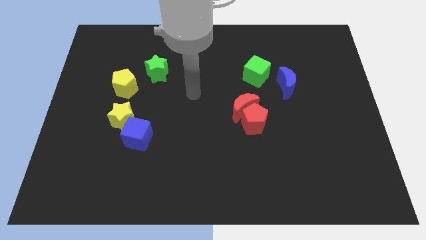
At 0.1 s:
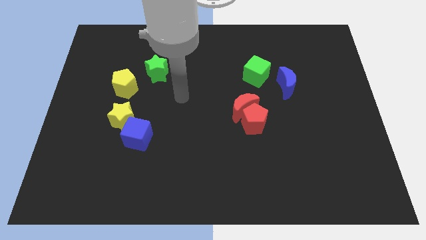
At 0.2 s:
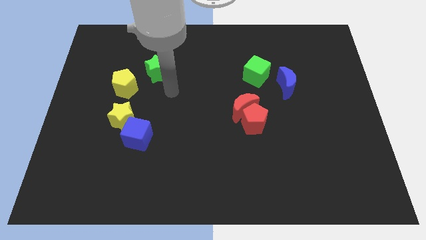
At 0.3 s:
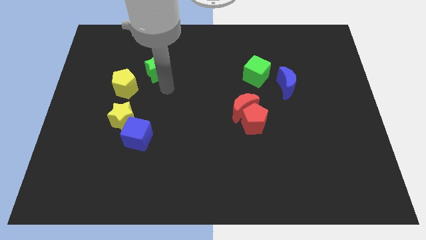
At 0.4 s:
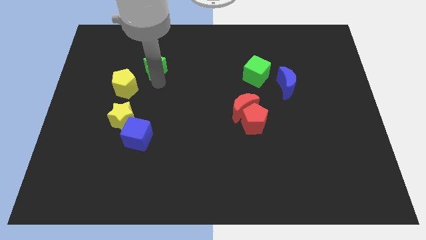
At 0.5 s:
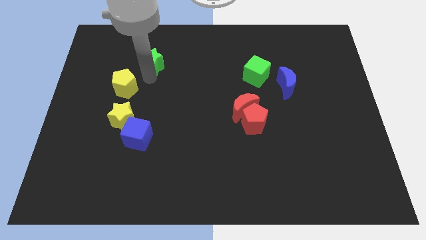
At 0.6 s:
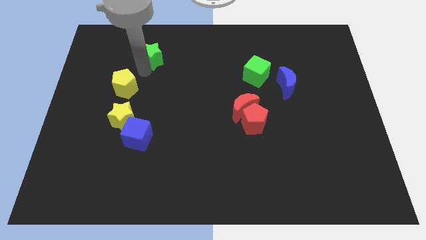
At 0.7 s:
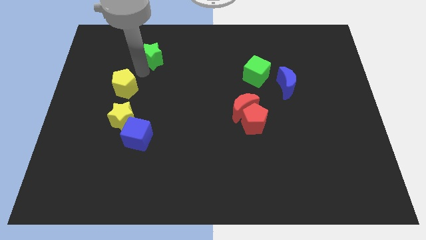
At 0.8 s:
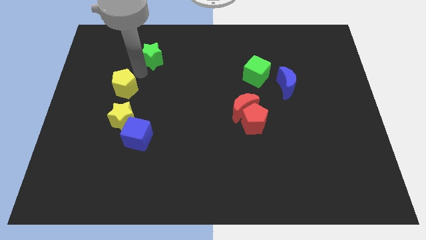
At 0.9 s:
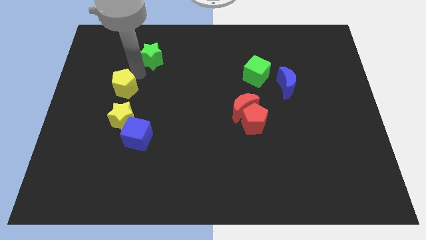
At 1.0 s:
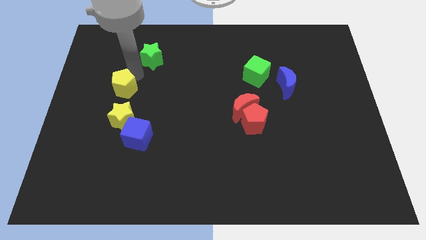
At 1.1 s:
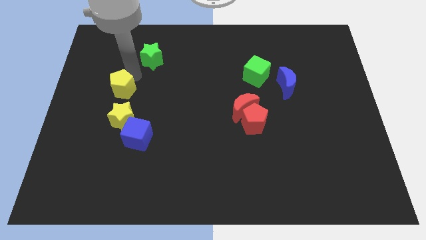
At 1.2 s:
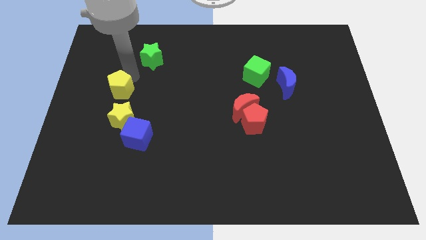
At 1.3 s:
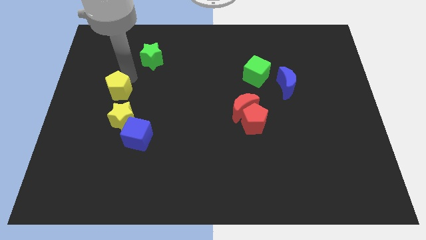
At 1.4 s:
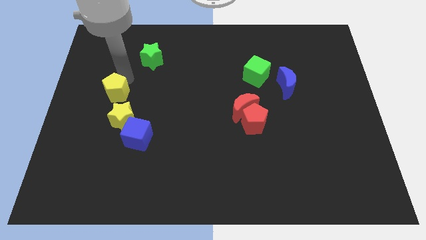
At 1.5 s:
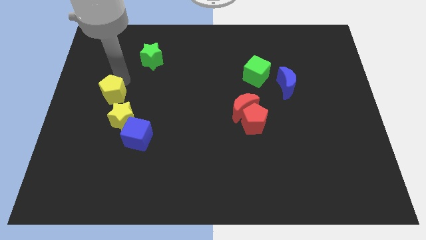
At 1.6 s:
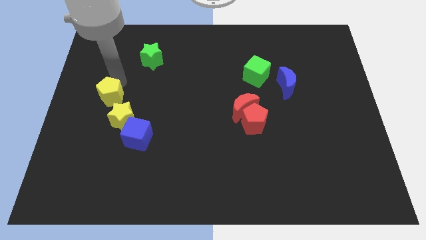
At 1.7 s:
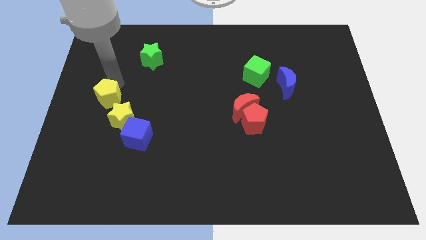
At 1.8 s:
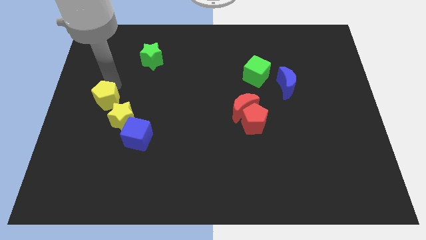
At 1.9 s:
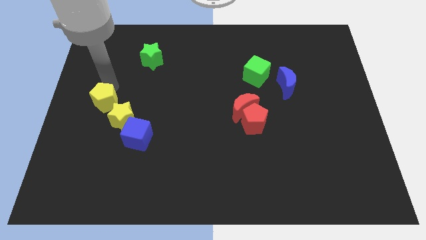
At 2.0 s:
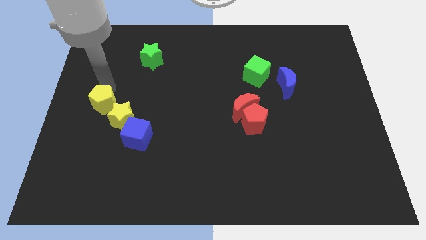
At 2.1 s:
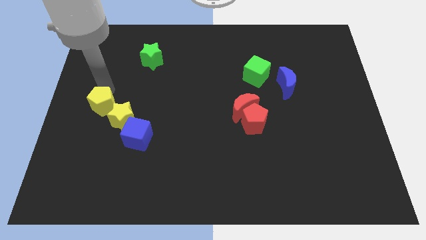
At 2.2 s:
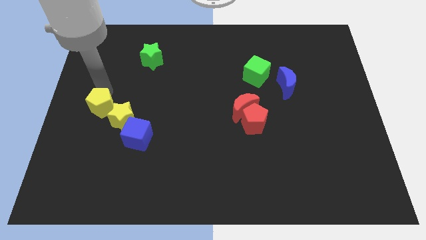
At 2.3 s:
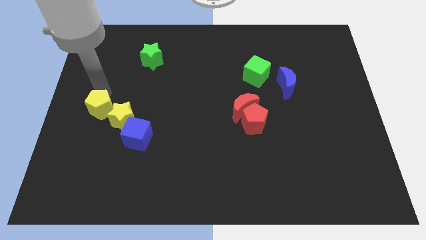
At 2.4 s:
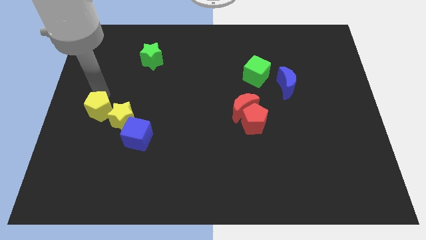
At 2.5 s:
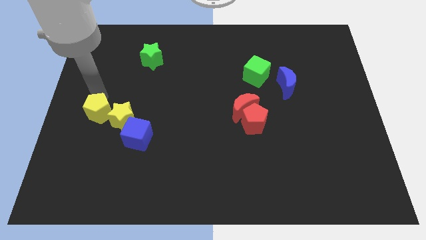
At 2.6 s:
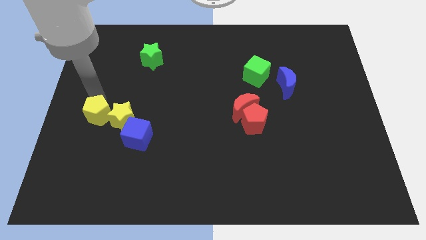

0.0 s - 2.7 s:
slide the yellow pentagon somewhat down

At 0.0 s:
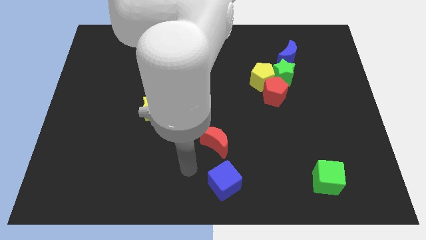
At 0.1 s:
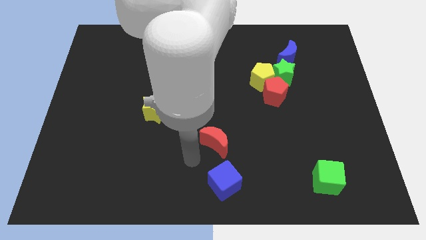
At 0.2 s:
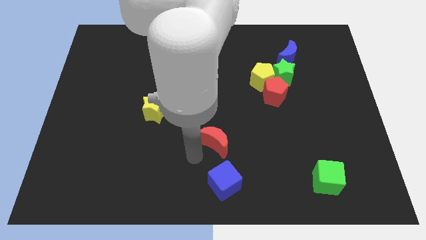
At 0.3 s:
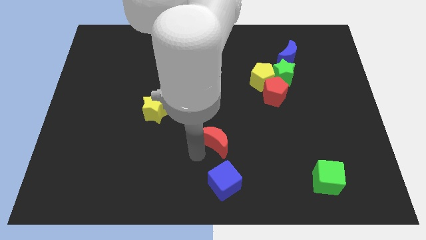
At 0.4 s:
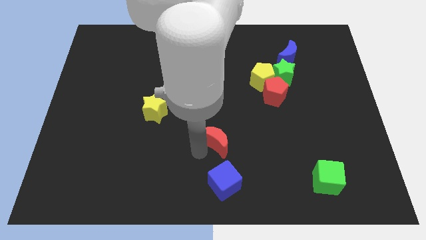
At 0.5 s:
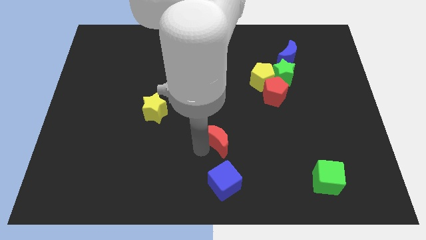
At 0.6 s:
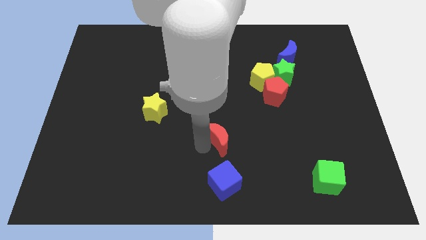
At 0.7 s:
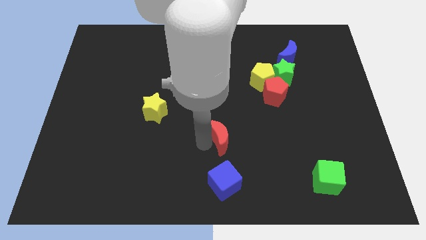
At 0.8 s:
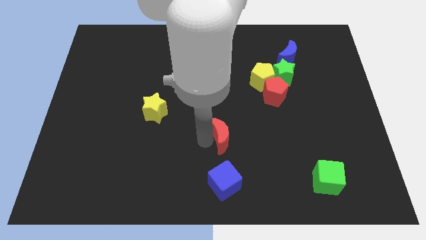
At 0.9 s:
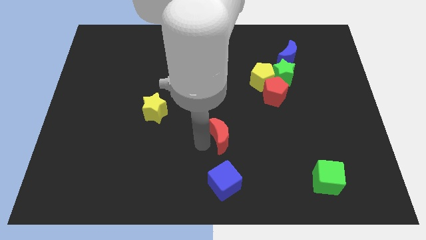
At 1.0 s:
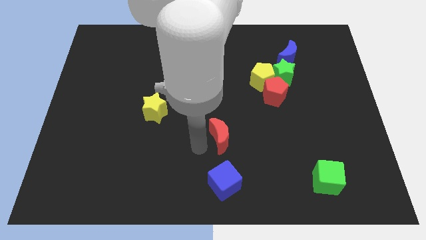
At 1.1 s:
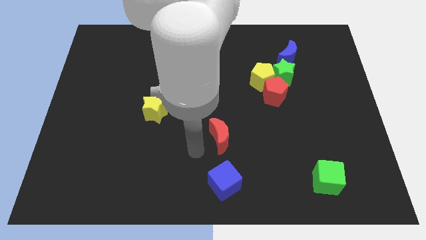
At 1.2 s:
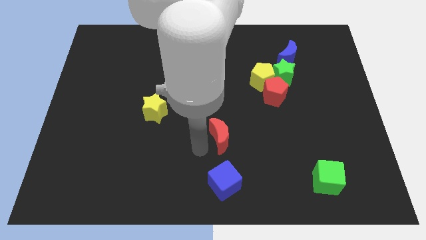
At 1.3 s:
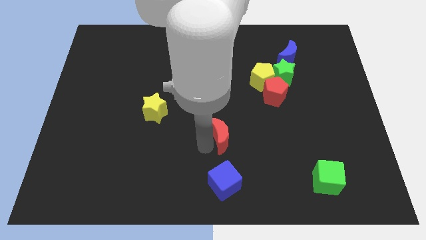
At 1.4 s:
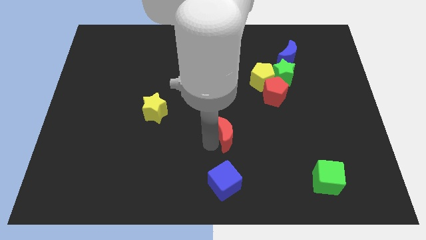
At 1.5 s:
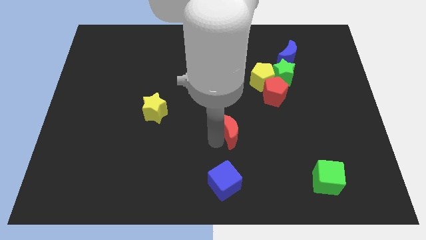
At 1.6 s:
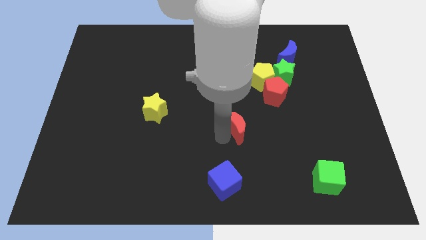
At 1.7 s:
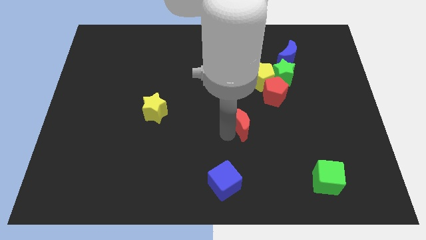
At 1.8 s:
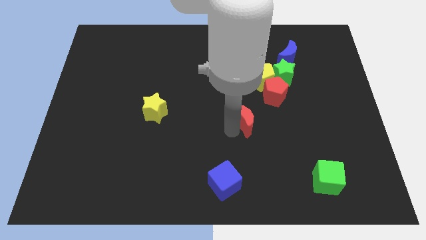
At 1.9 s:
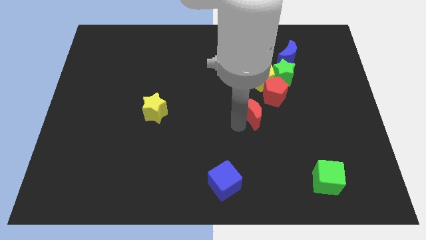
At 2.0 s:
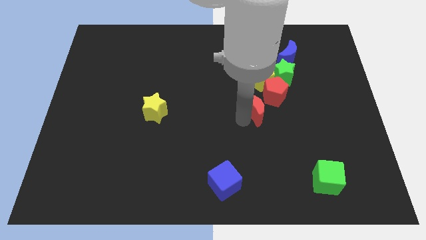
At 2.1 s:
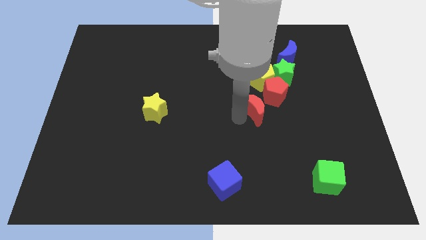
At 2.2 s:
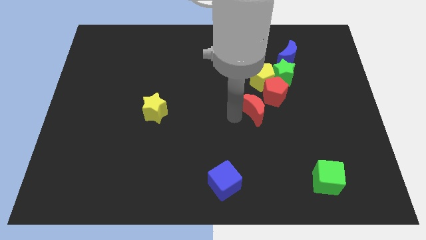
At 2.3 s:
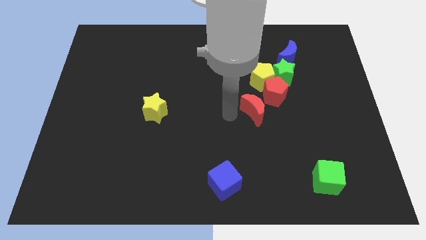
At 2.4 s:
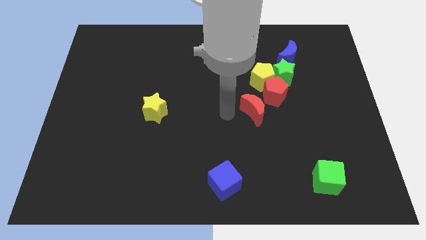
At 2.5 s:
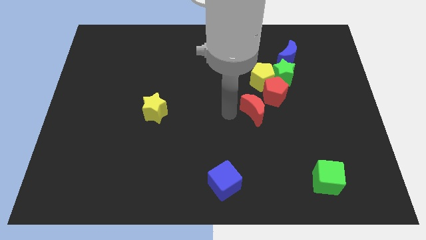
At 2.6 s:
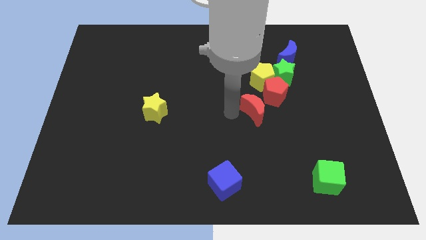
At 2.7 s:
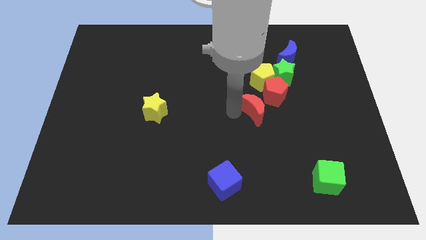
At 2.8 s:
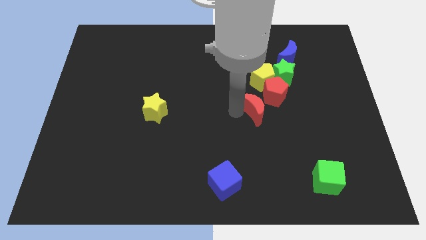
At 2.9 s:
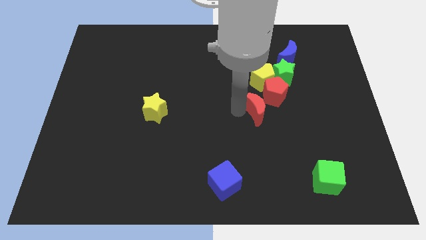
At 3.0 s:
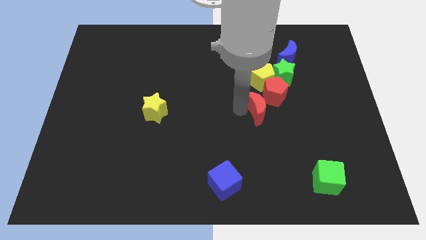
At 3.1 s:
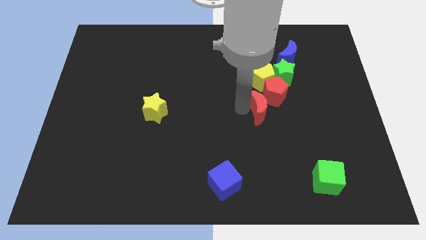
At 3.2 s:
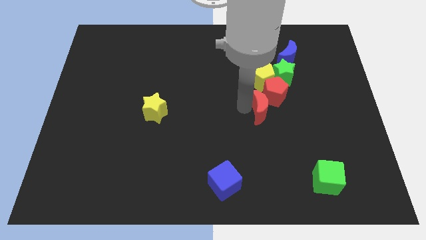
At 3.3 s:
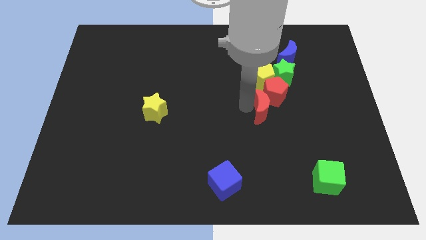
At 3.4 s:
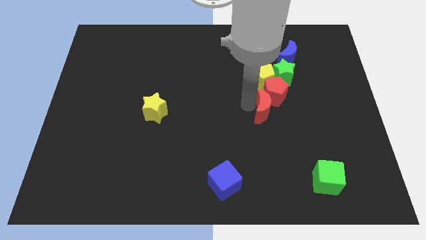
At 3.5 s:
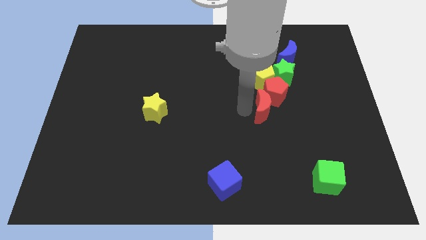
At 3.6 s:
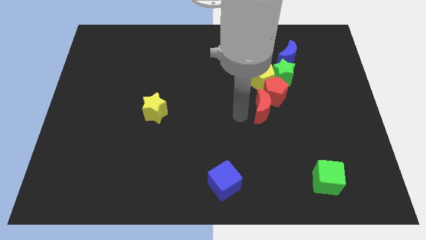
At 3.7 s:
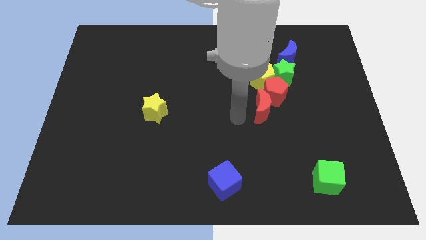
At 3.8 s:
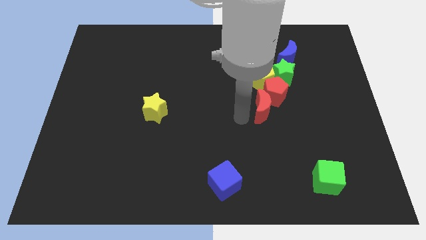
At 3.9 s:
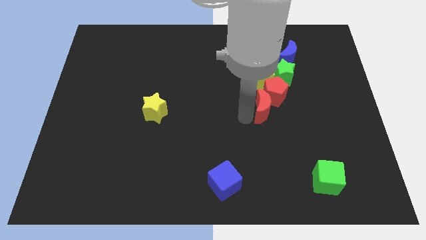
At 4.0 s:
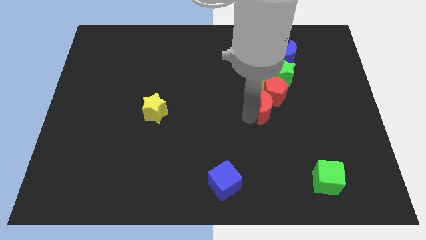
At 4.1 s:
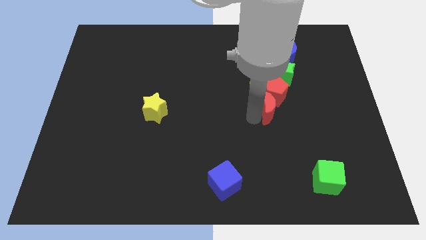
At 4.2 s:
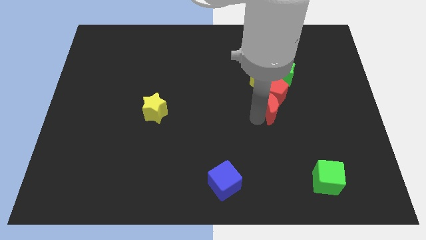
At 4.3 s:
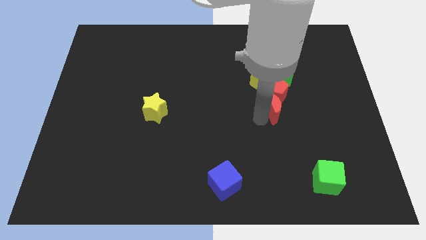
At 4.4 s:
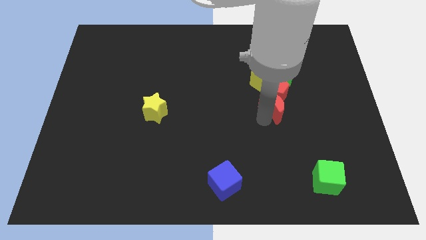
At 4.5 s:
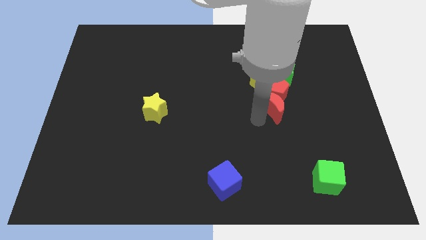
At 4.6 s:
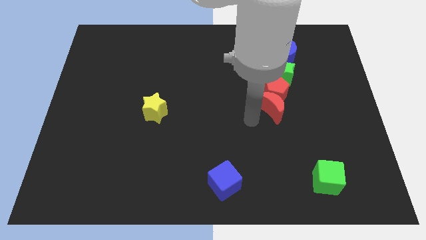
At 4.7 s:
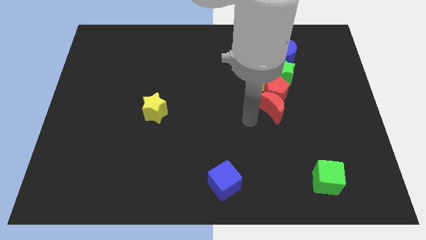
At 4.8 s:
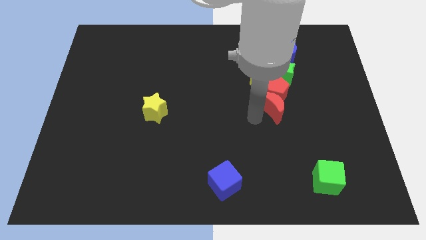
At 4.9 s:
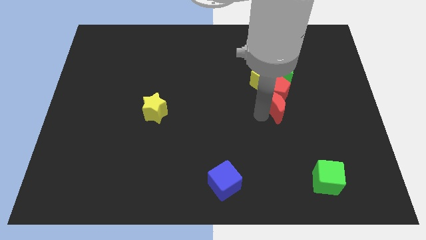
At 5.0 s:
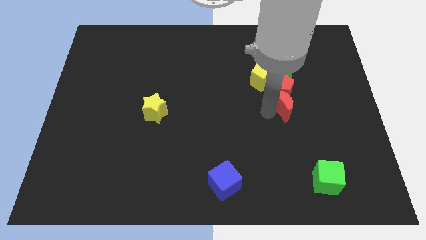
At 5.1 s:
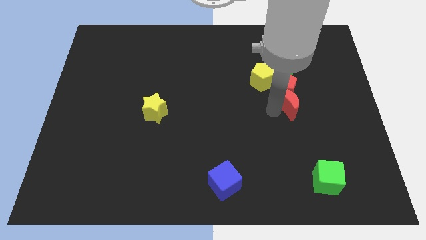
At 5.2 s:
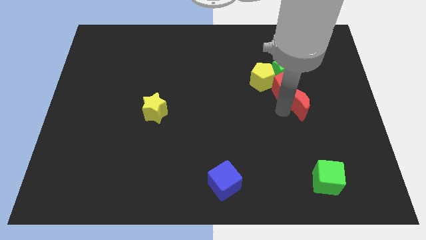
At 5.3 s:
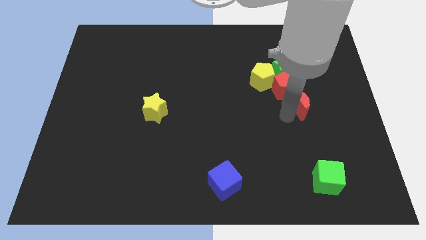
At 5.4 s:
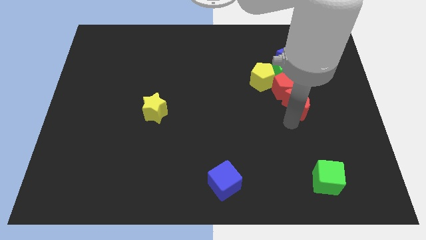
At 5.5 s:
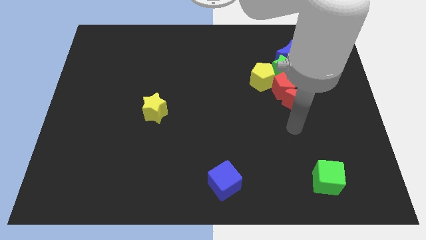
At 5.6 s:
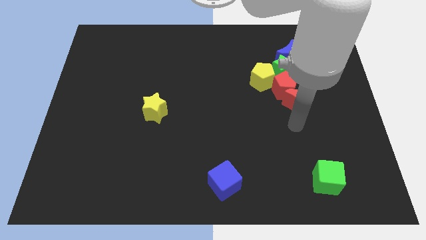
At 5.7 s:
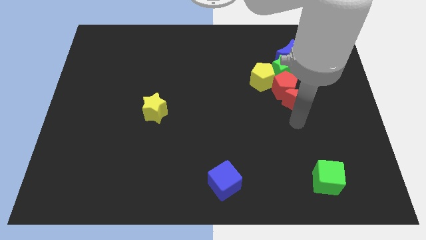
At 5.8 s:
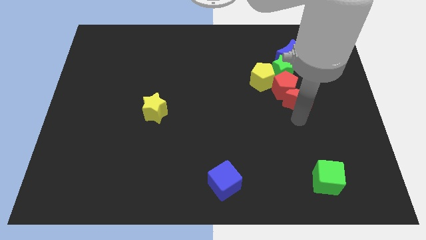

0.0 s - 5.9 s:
push the red moon up and then right
